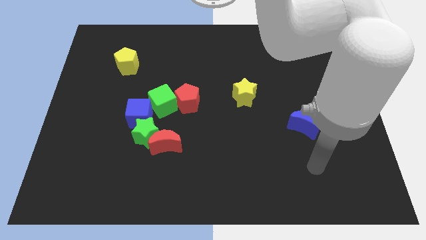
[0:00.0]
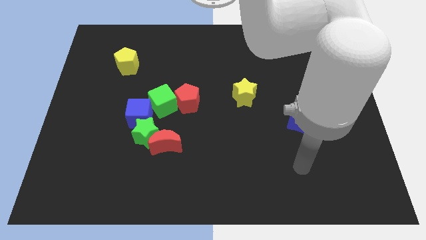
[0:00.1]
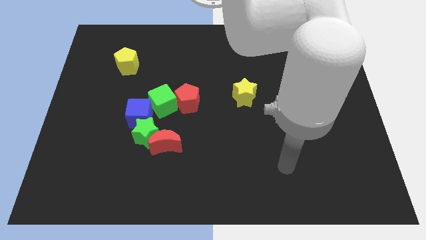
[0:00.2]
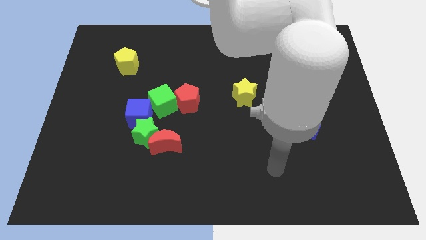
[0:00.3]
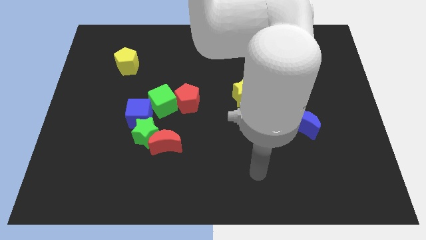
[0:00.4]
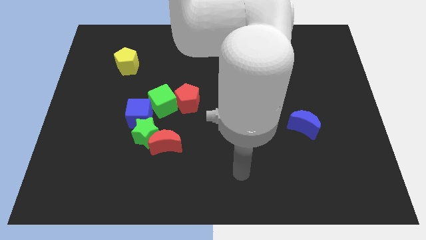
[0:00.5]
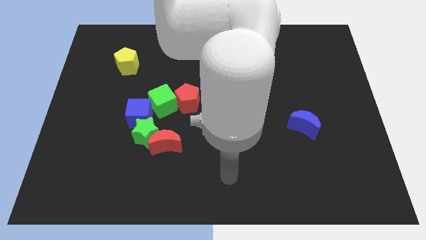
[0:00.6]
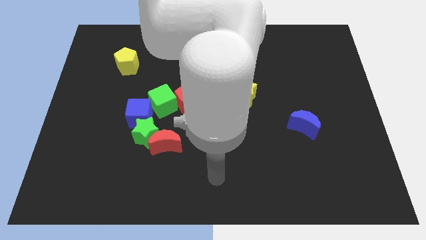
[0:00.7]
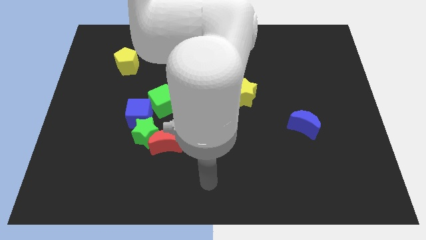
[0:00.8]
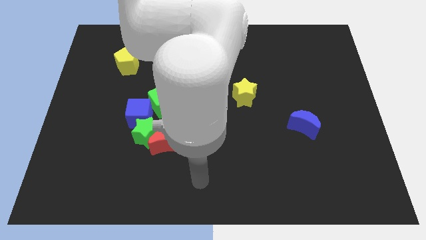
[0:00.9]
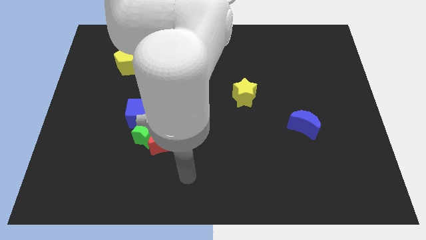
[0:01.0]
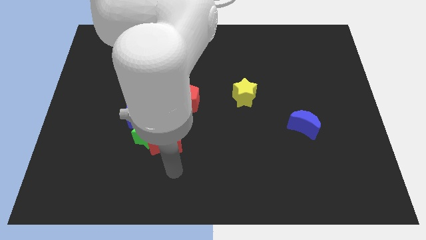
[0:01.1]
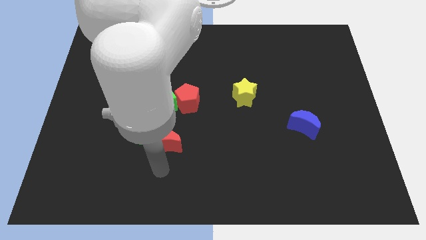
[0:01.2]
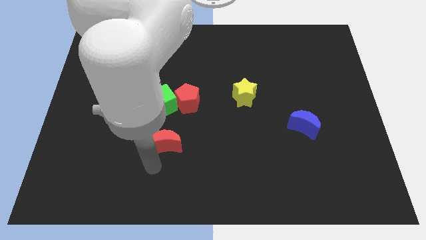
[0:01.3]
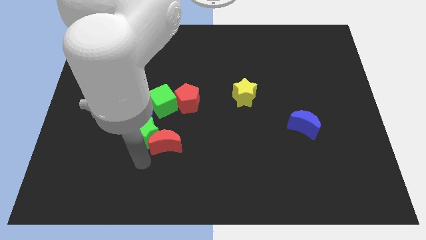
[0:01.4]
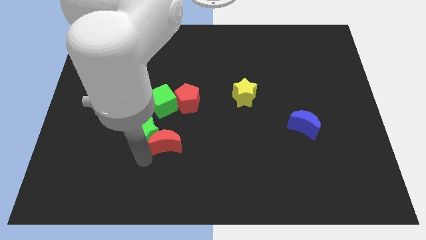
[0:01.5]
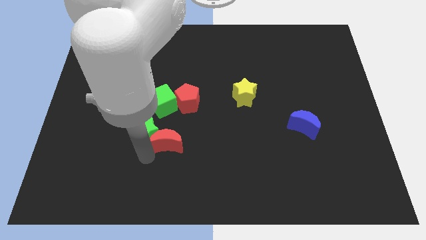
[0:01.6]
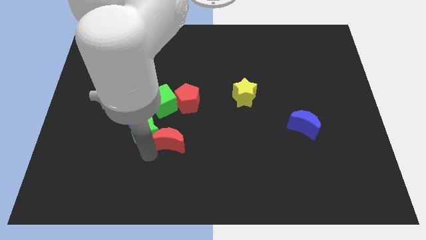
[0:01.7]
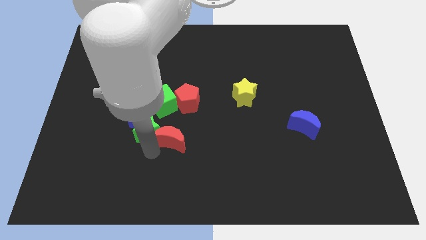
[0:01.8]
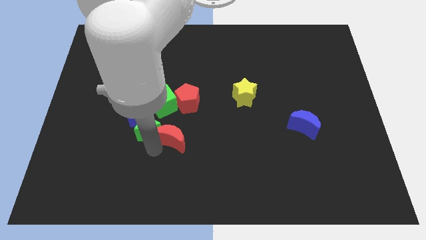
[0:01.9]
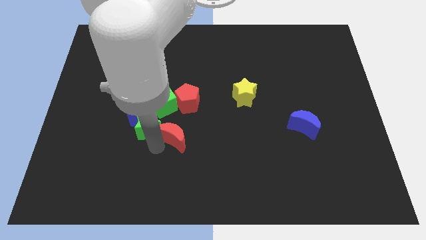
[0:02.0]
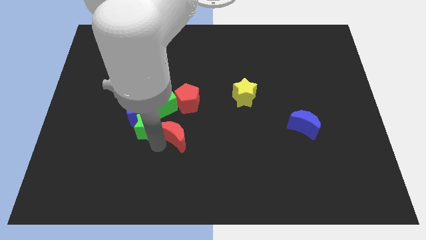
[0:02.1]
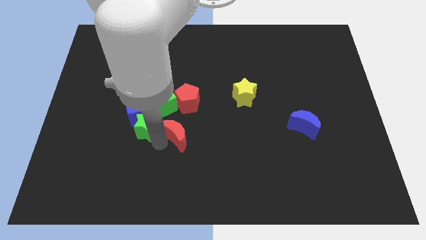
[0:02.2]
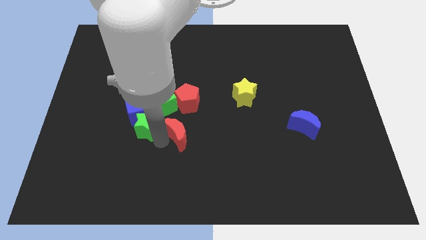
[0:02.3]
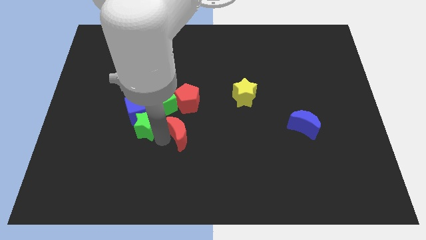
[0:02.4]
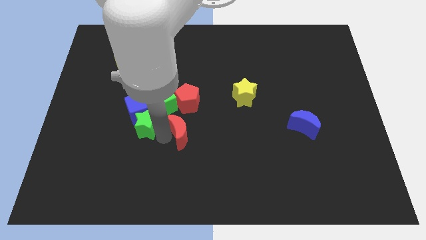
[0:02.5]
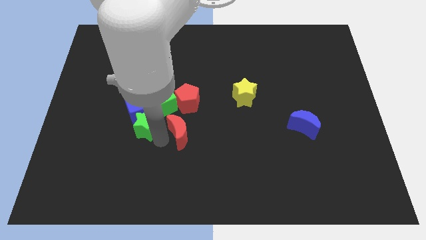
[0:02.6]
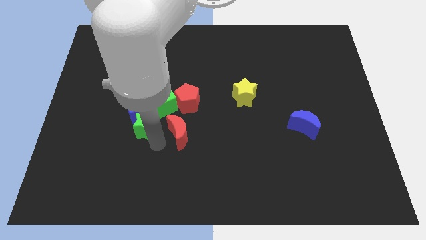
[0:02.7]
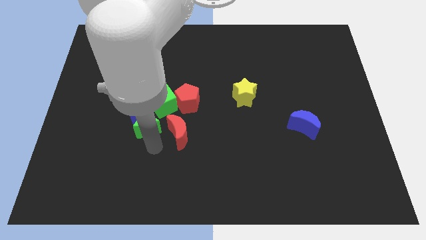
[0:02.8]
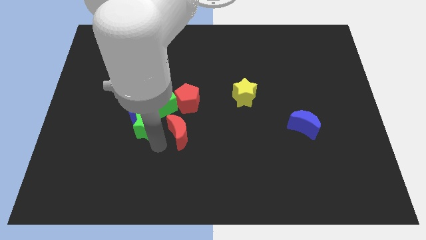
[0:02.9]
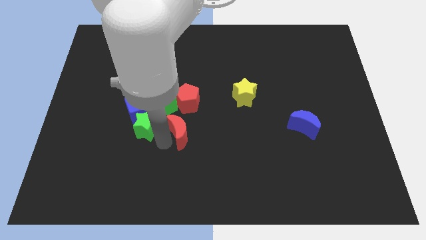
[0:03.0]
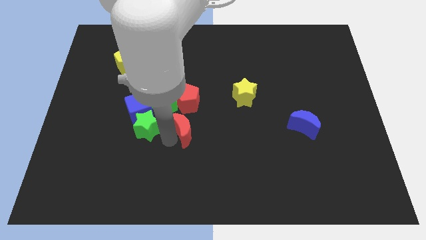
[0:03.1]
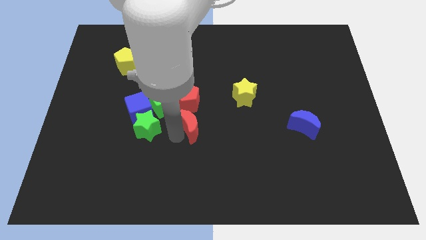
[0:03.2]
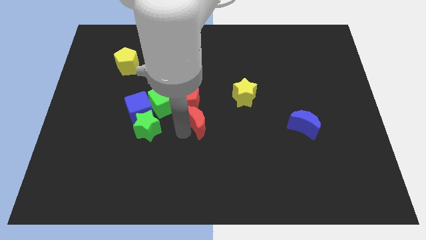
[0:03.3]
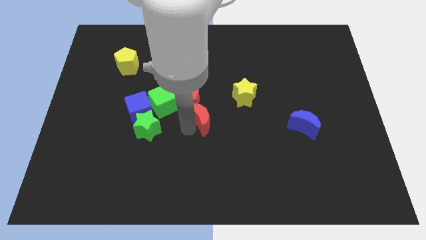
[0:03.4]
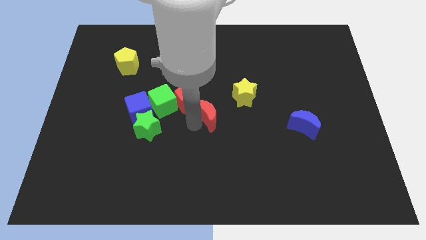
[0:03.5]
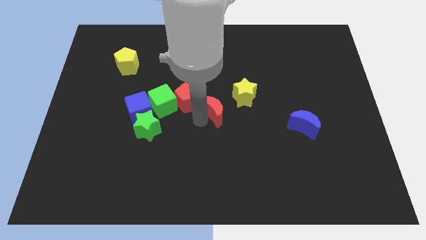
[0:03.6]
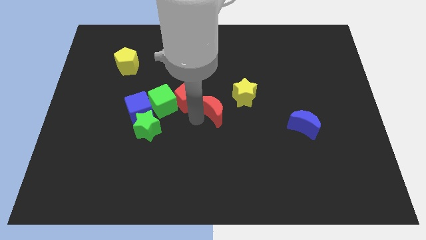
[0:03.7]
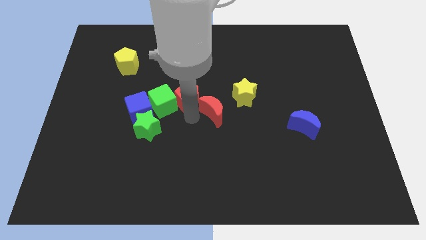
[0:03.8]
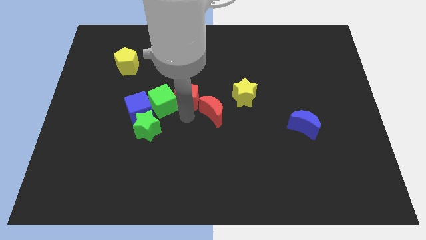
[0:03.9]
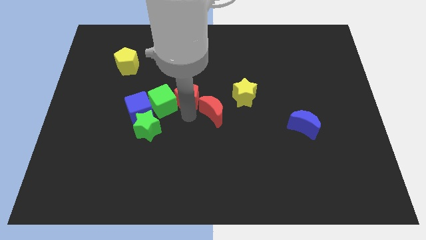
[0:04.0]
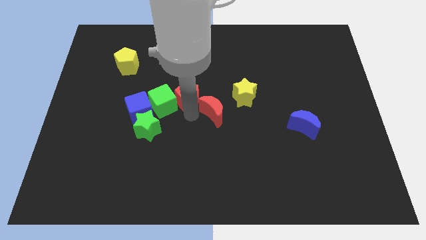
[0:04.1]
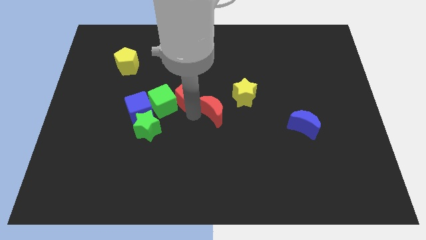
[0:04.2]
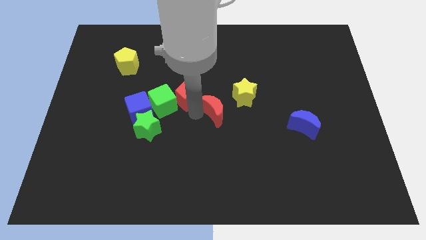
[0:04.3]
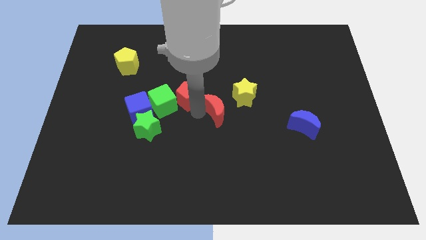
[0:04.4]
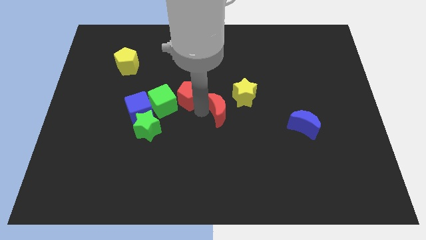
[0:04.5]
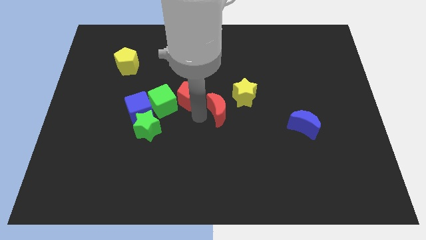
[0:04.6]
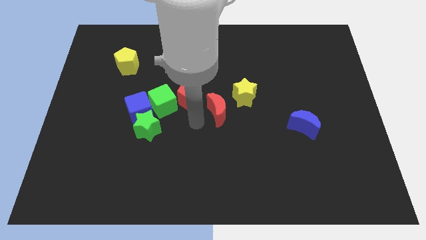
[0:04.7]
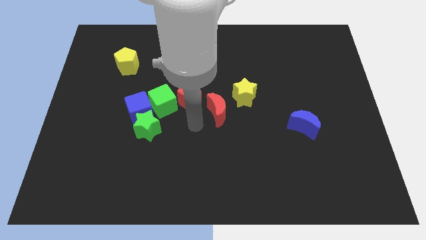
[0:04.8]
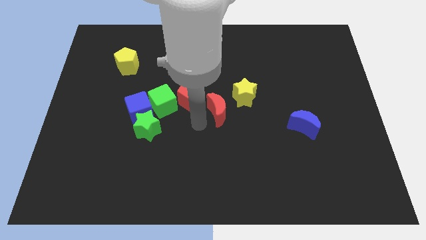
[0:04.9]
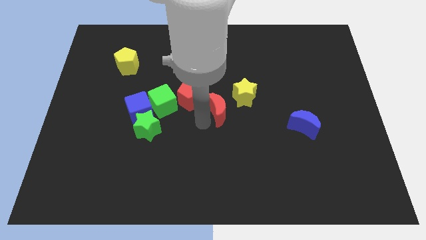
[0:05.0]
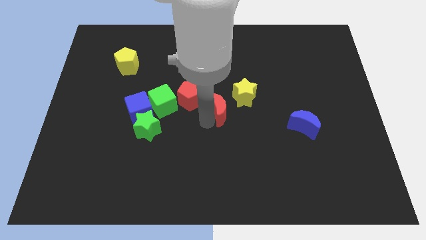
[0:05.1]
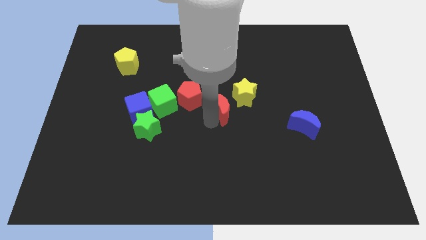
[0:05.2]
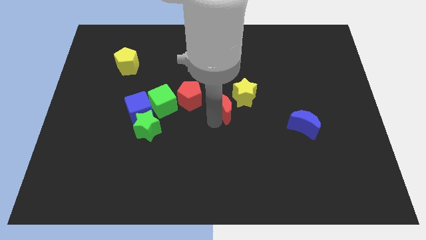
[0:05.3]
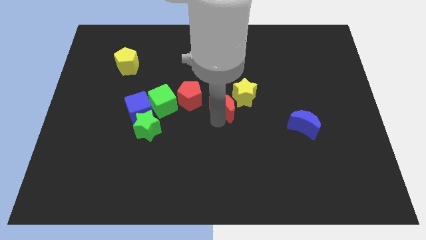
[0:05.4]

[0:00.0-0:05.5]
put the red moon to the yellow star

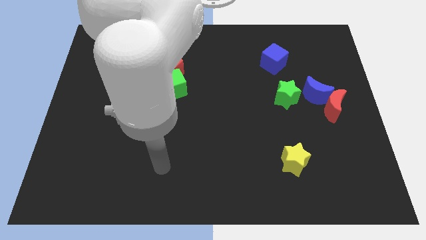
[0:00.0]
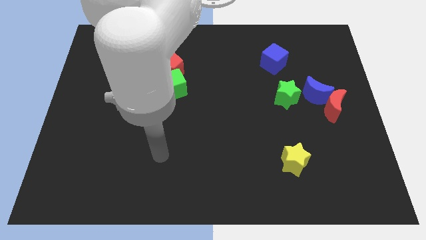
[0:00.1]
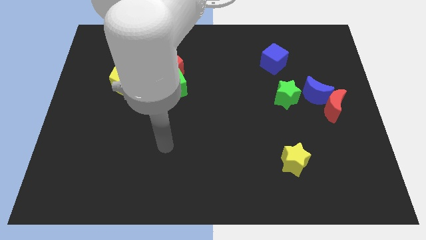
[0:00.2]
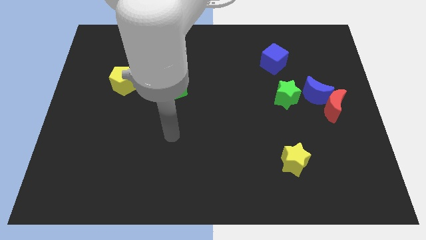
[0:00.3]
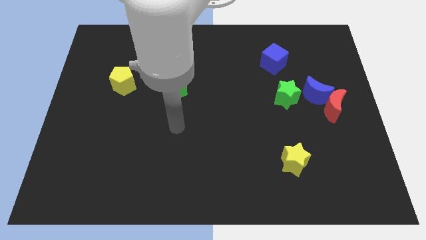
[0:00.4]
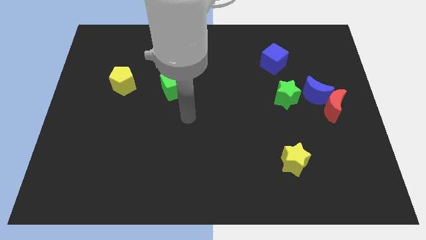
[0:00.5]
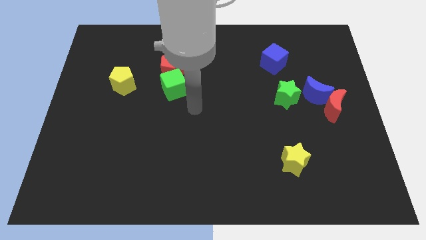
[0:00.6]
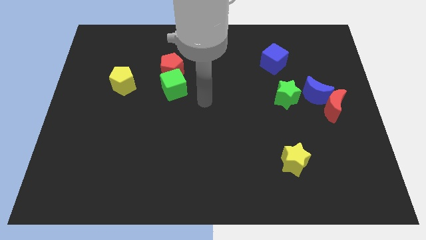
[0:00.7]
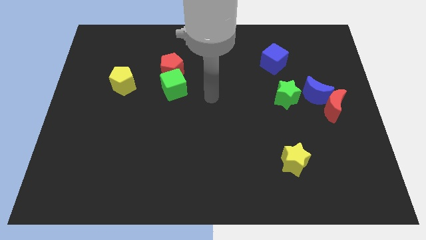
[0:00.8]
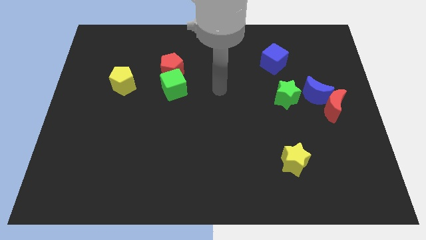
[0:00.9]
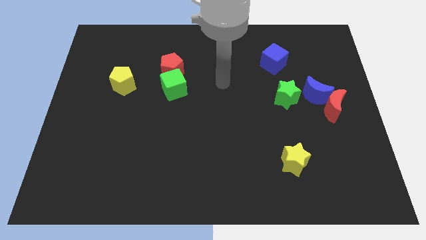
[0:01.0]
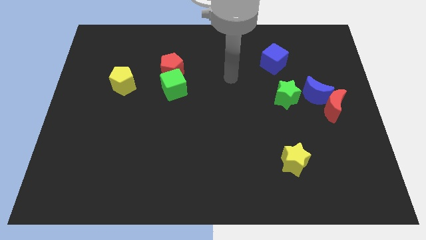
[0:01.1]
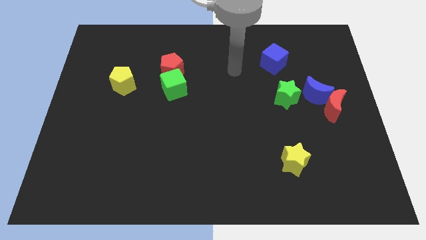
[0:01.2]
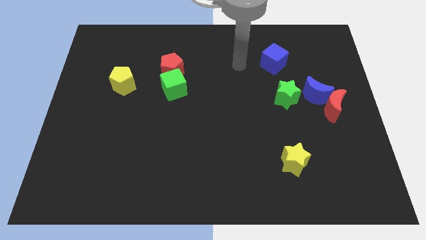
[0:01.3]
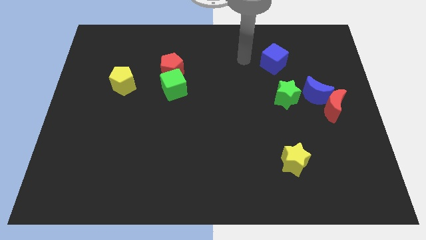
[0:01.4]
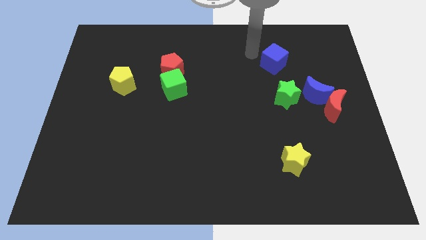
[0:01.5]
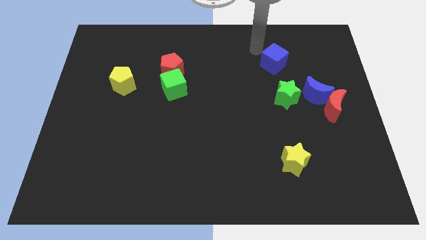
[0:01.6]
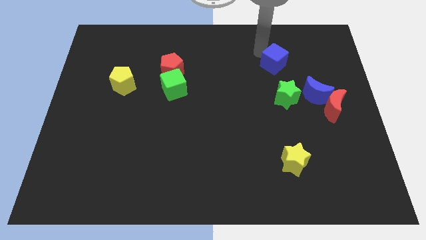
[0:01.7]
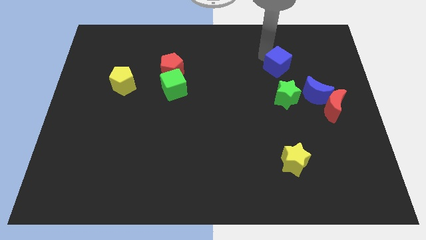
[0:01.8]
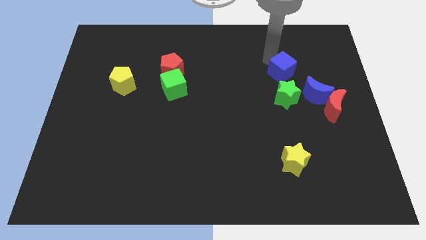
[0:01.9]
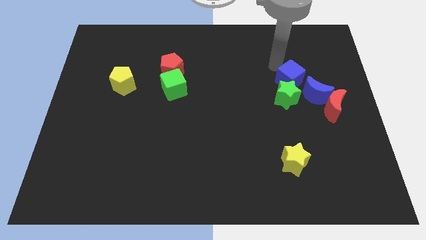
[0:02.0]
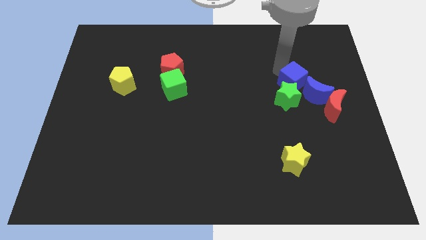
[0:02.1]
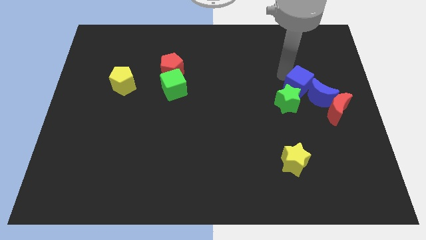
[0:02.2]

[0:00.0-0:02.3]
move the blue cube towards the blue moon
